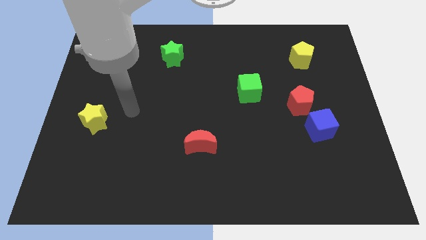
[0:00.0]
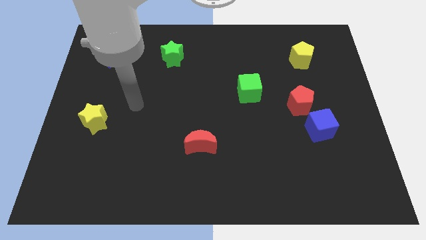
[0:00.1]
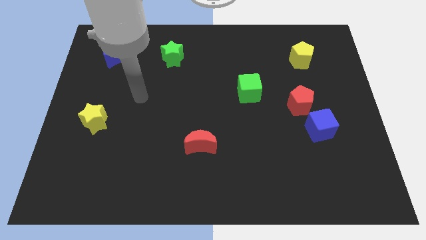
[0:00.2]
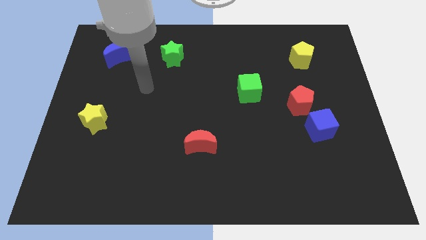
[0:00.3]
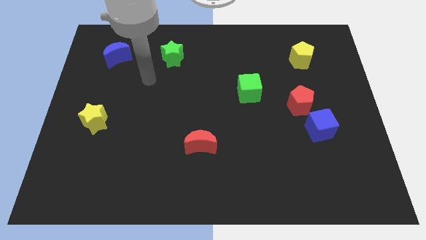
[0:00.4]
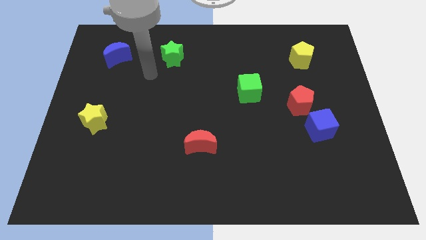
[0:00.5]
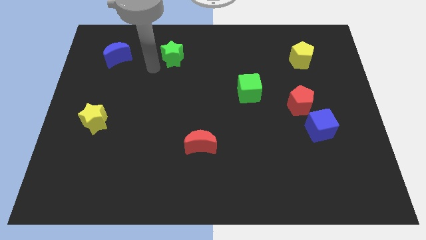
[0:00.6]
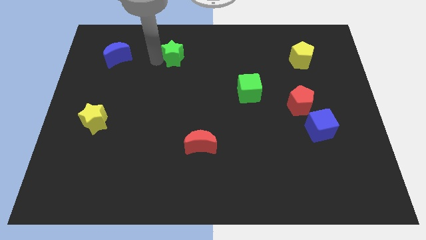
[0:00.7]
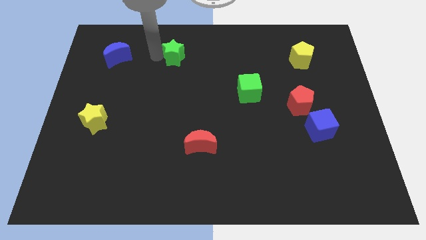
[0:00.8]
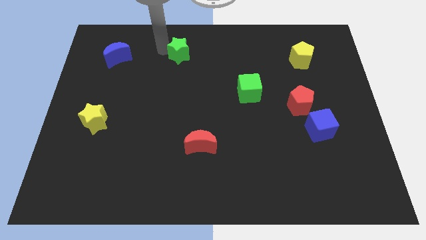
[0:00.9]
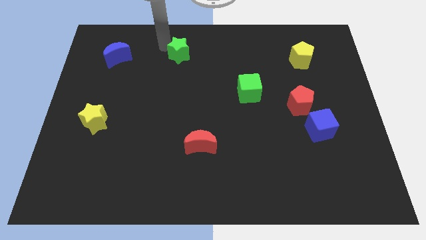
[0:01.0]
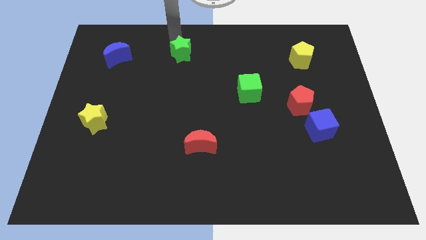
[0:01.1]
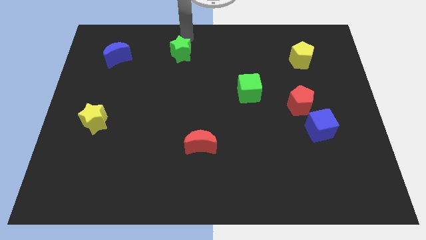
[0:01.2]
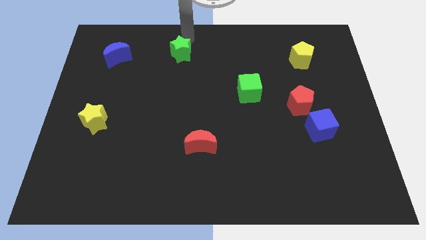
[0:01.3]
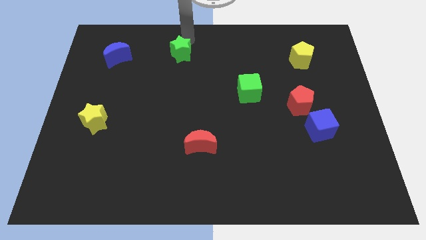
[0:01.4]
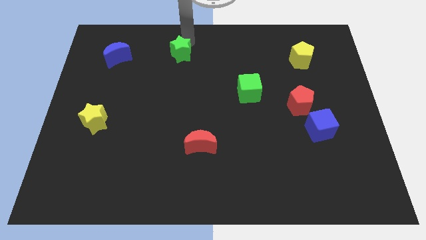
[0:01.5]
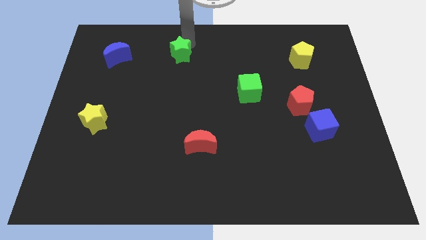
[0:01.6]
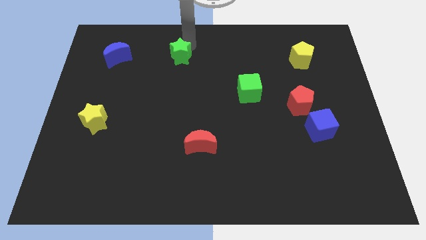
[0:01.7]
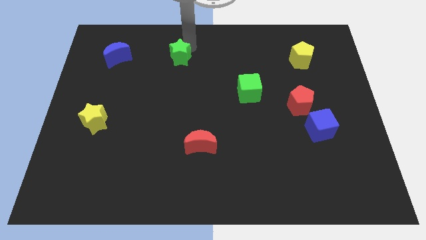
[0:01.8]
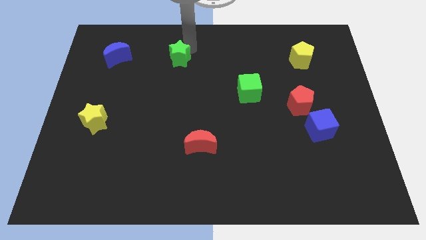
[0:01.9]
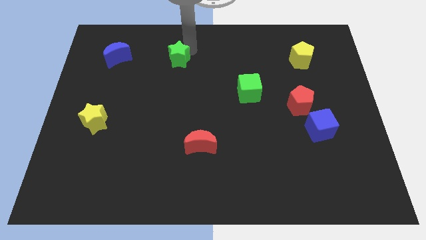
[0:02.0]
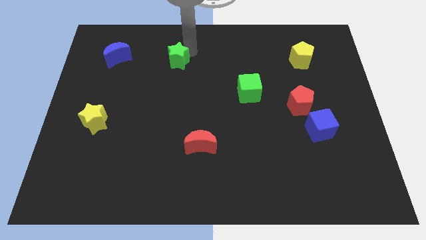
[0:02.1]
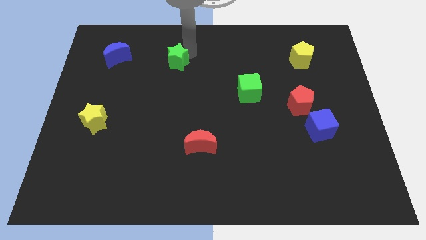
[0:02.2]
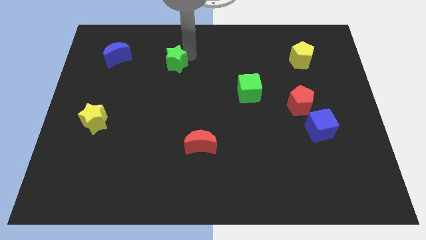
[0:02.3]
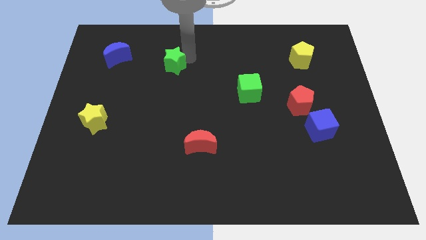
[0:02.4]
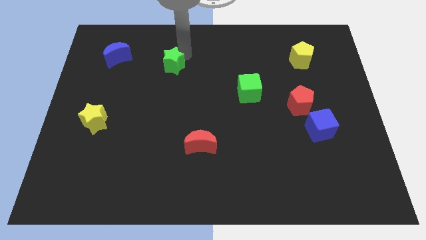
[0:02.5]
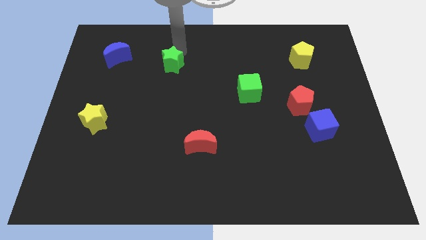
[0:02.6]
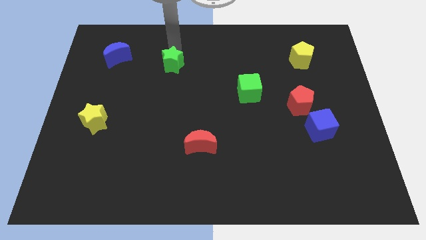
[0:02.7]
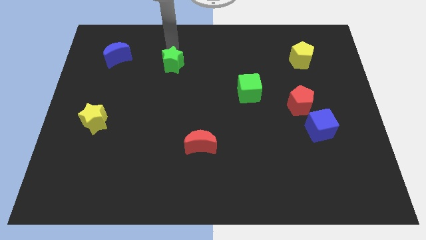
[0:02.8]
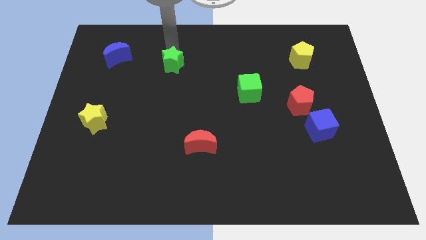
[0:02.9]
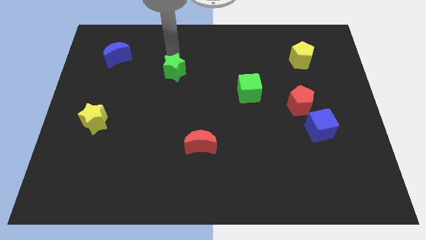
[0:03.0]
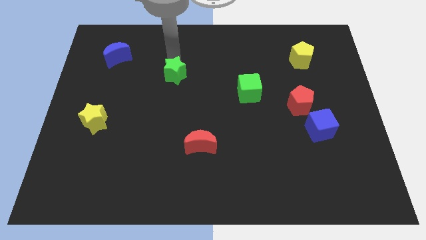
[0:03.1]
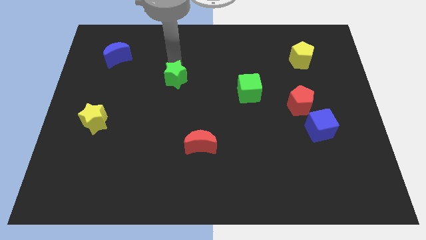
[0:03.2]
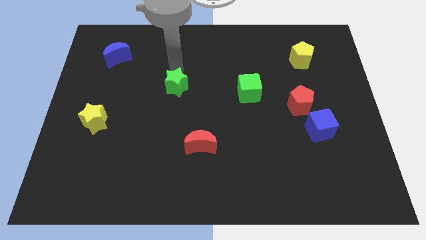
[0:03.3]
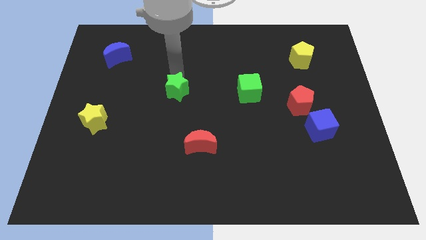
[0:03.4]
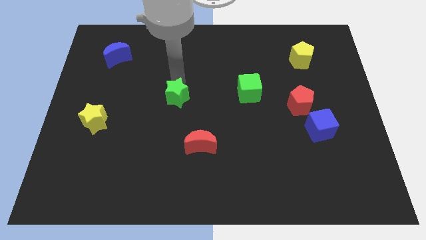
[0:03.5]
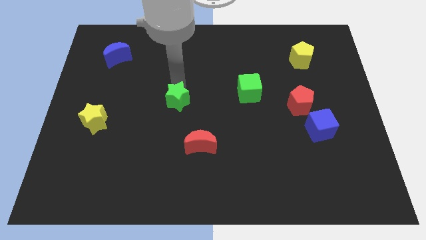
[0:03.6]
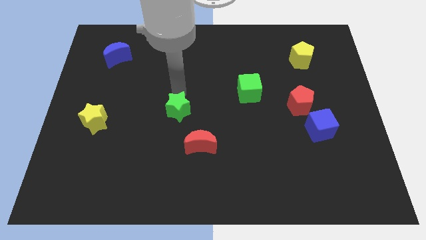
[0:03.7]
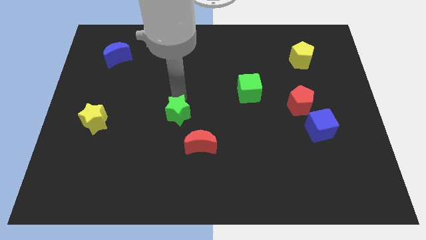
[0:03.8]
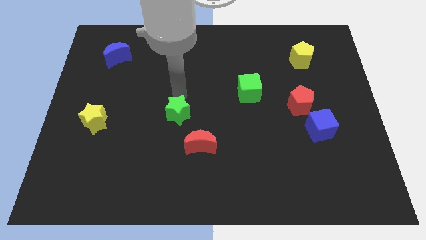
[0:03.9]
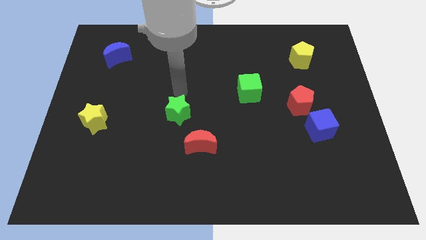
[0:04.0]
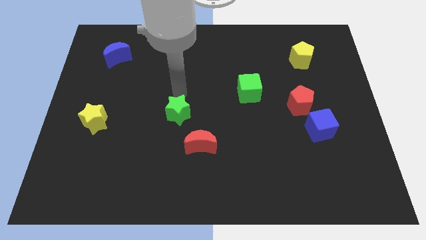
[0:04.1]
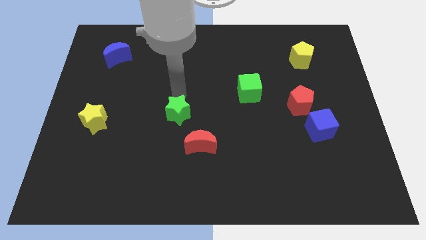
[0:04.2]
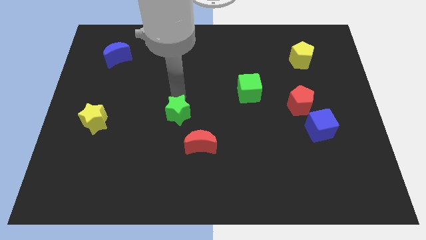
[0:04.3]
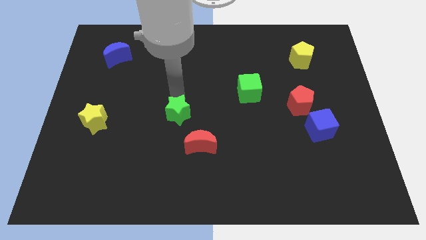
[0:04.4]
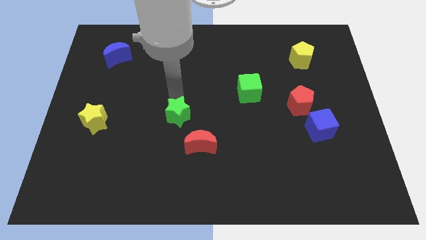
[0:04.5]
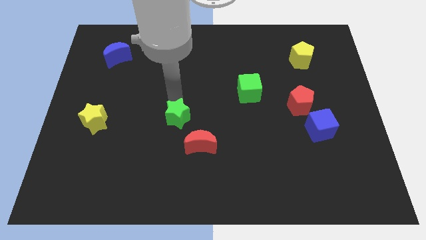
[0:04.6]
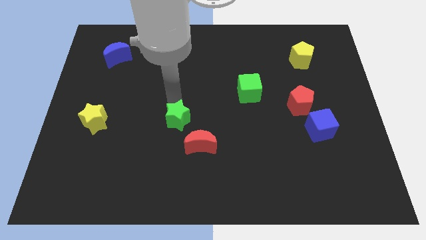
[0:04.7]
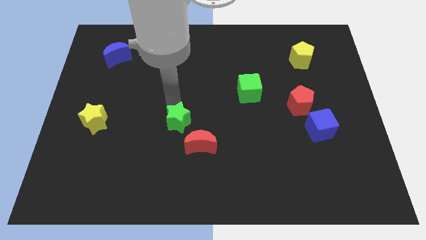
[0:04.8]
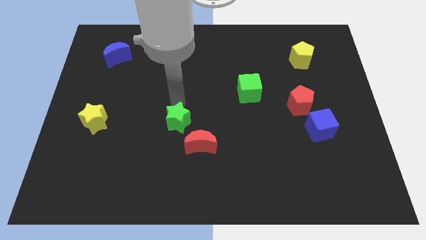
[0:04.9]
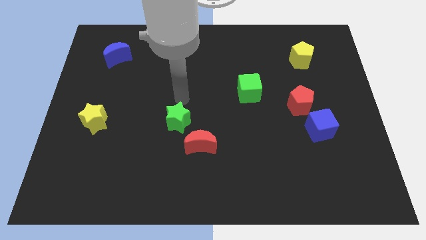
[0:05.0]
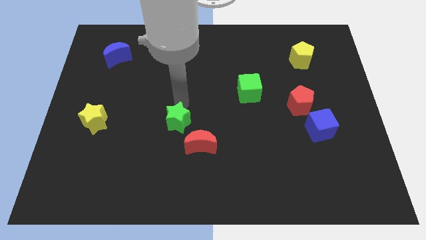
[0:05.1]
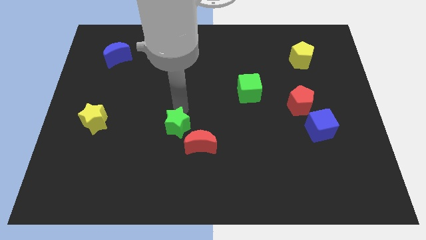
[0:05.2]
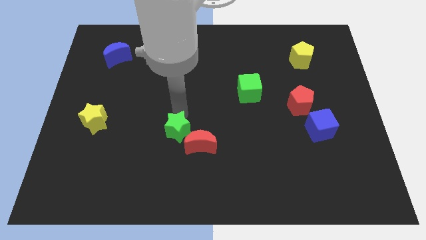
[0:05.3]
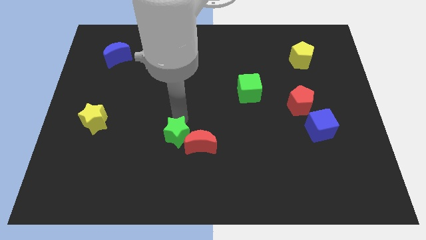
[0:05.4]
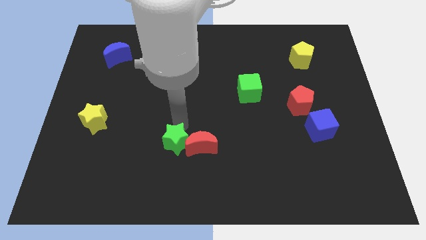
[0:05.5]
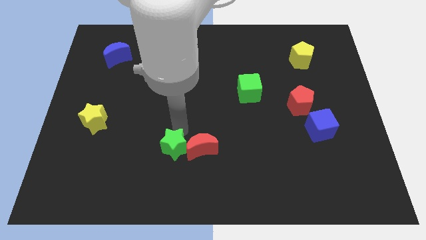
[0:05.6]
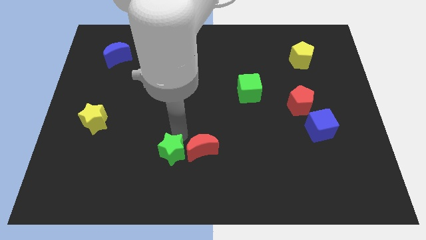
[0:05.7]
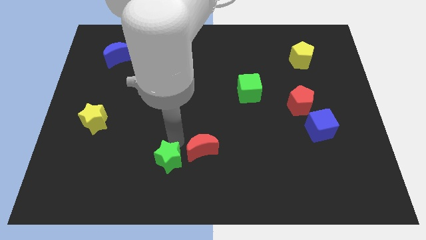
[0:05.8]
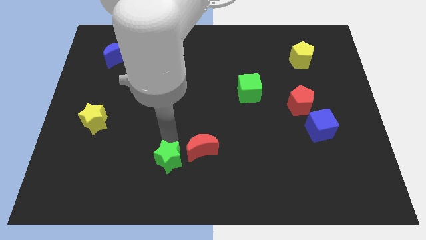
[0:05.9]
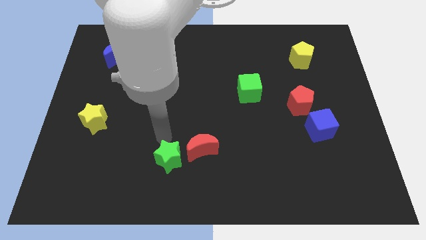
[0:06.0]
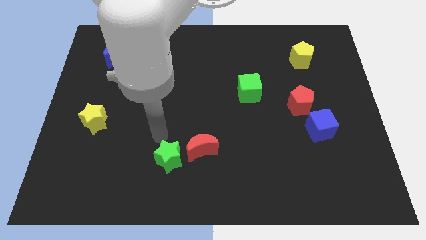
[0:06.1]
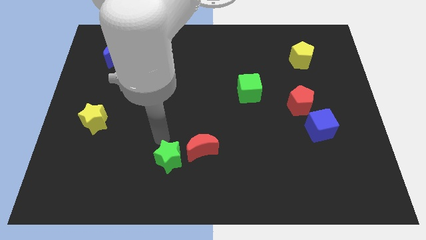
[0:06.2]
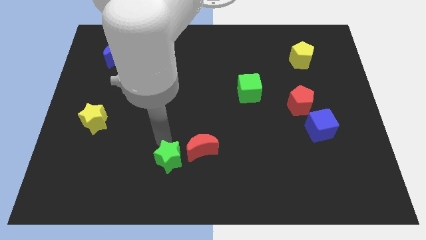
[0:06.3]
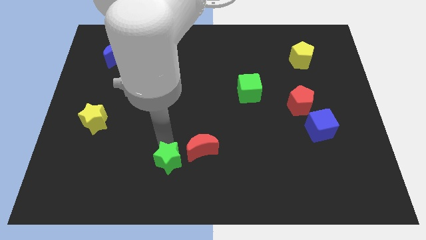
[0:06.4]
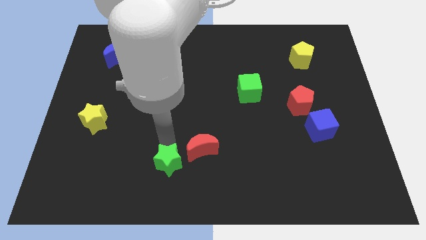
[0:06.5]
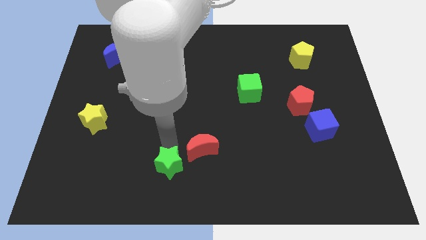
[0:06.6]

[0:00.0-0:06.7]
put the green star to the bottom side

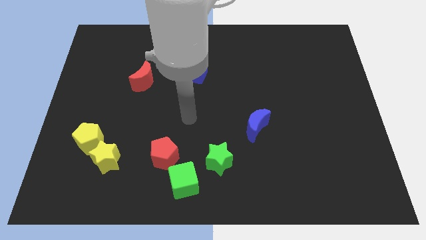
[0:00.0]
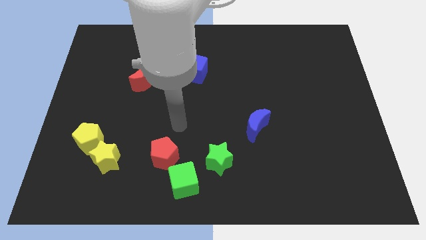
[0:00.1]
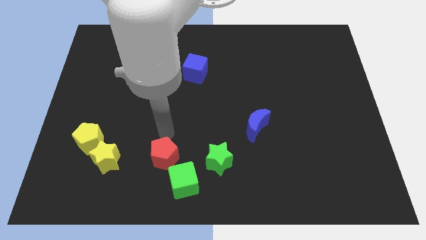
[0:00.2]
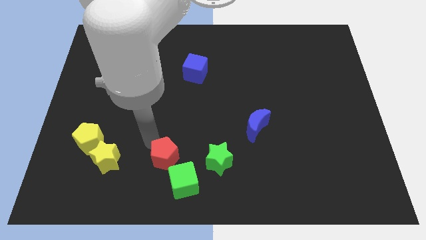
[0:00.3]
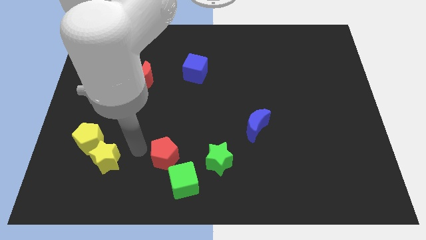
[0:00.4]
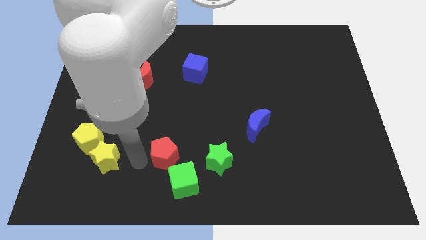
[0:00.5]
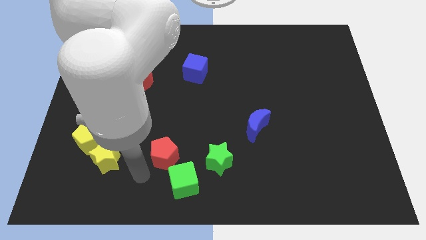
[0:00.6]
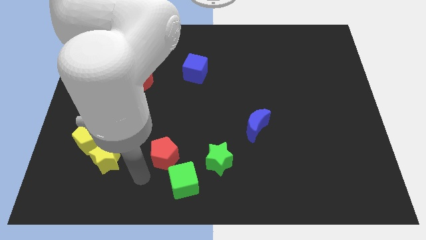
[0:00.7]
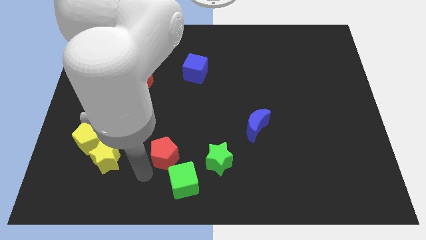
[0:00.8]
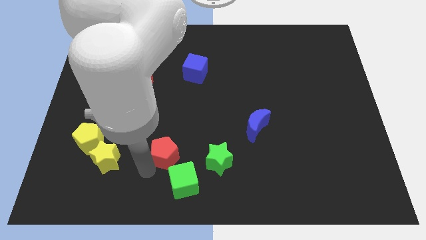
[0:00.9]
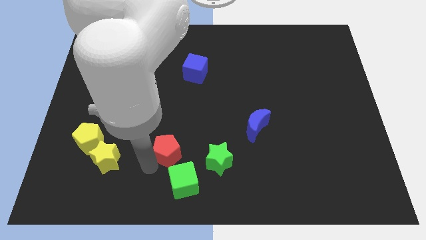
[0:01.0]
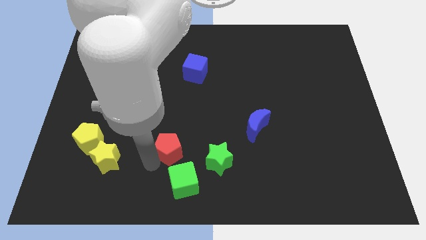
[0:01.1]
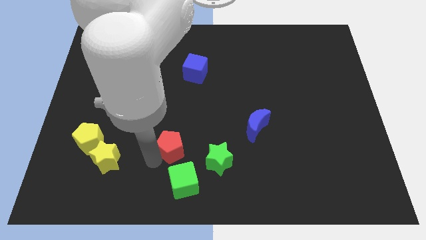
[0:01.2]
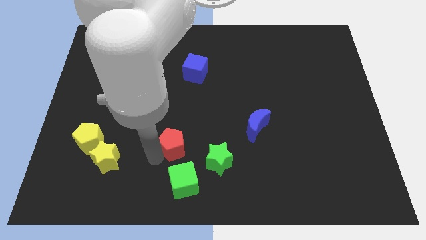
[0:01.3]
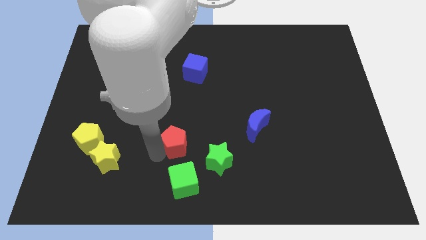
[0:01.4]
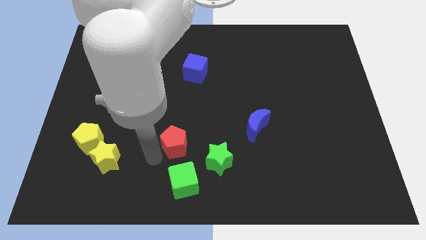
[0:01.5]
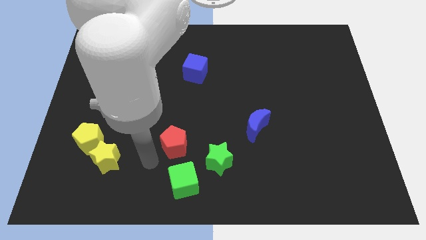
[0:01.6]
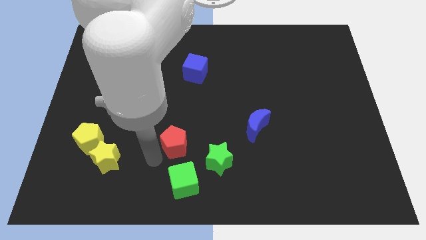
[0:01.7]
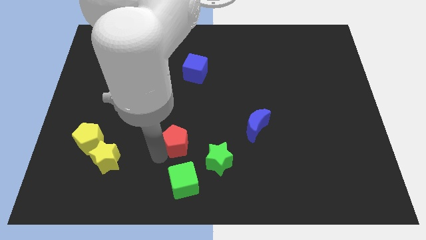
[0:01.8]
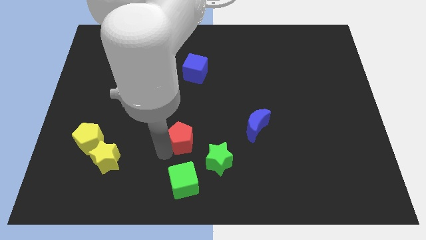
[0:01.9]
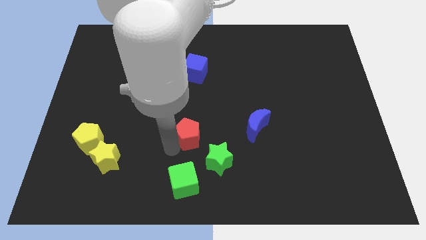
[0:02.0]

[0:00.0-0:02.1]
move the red pentagon to the center of the board
